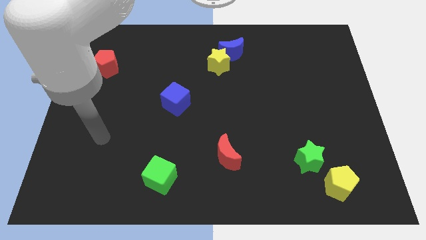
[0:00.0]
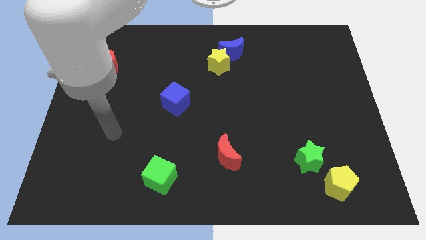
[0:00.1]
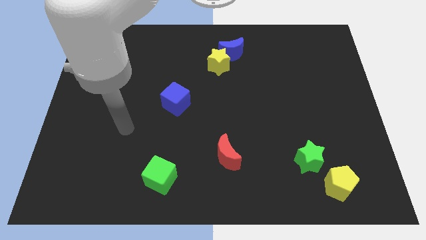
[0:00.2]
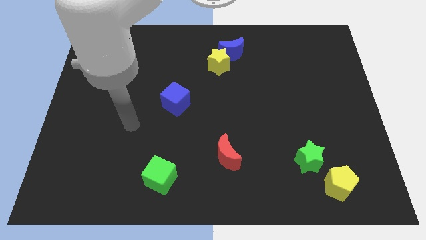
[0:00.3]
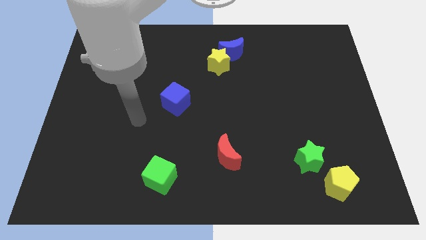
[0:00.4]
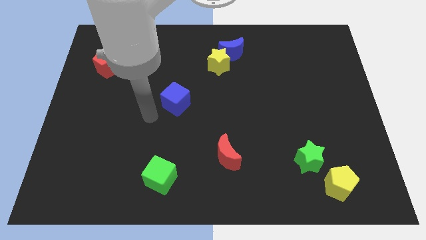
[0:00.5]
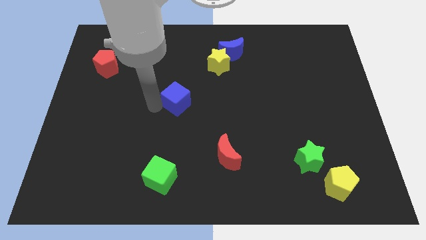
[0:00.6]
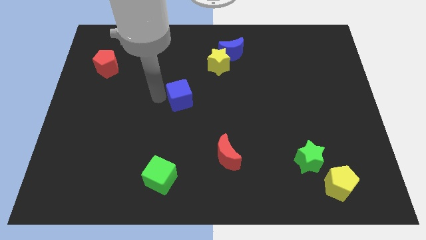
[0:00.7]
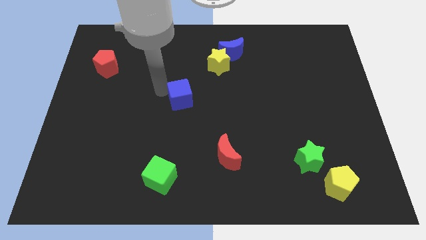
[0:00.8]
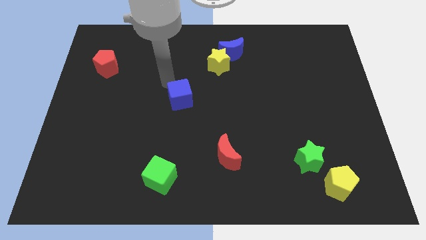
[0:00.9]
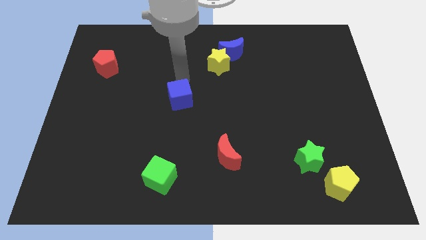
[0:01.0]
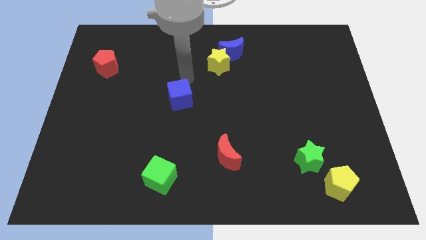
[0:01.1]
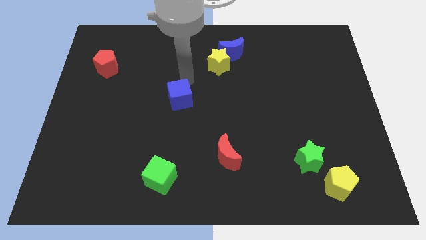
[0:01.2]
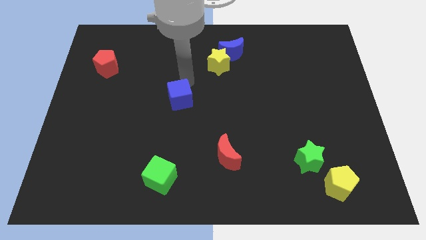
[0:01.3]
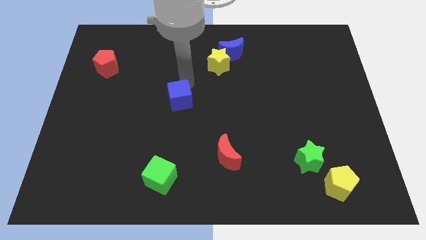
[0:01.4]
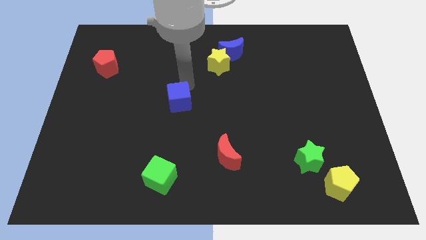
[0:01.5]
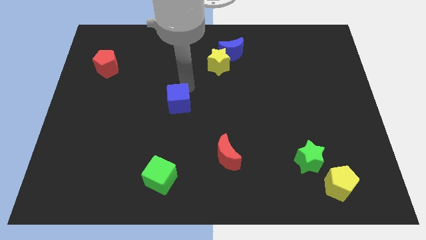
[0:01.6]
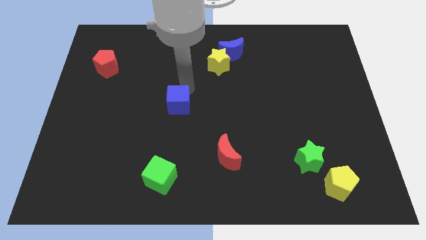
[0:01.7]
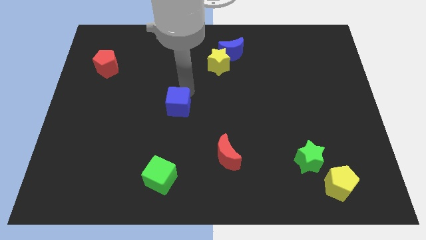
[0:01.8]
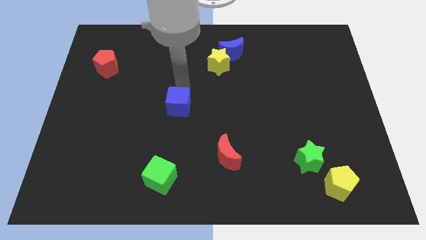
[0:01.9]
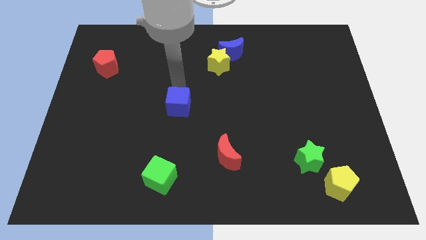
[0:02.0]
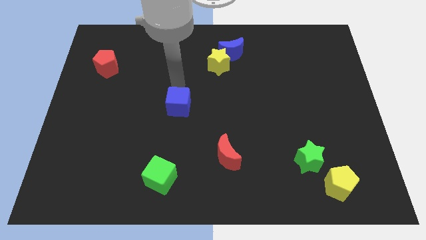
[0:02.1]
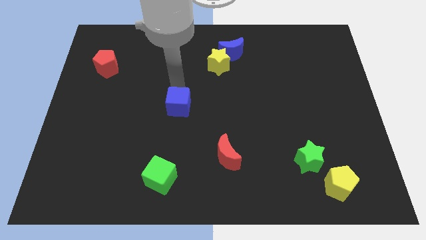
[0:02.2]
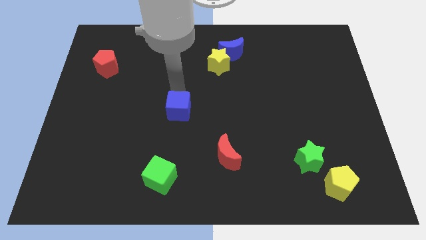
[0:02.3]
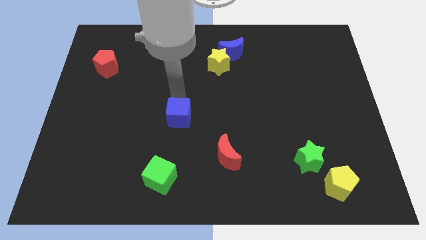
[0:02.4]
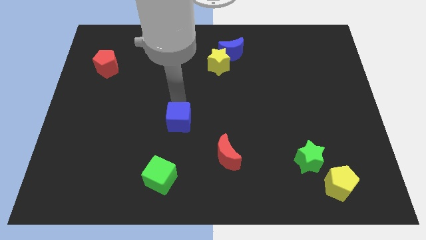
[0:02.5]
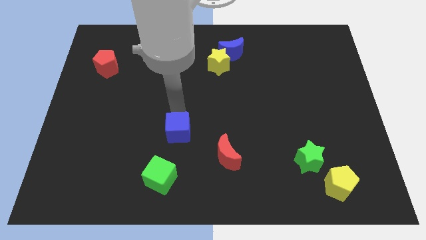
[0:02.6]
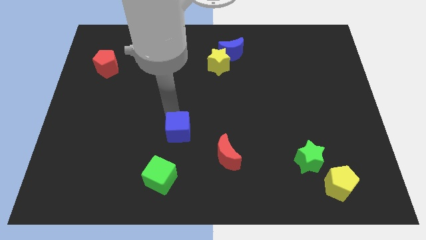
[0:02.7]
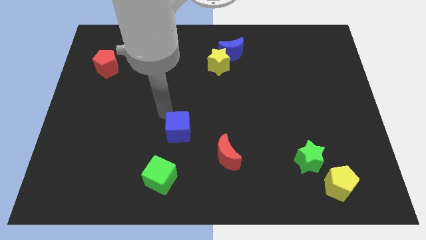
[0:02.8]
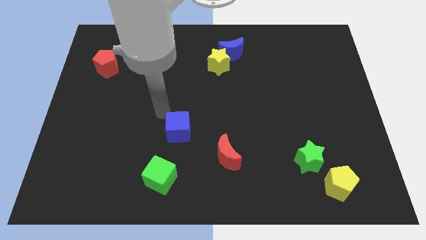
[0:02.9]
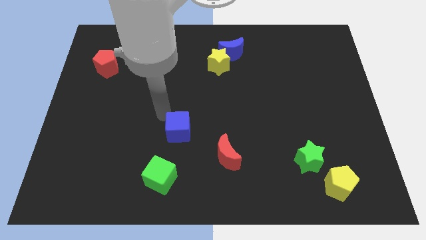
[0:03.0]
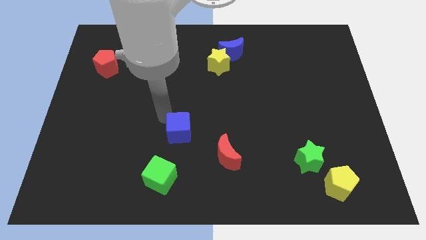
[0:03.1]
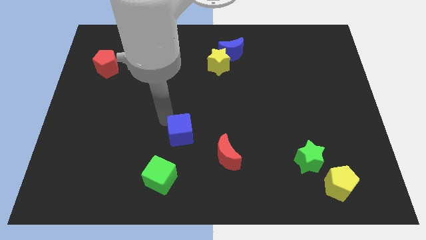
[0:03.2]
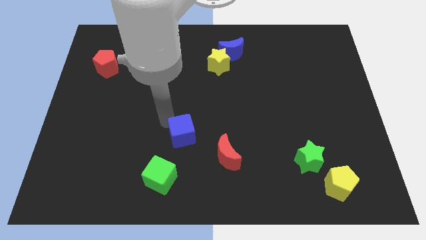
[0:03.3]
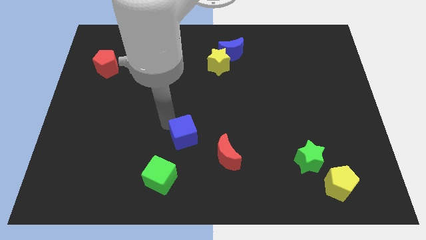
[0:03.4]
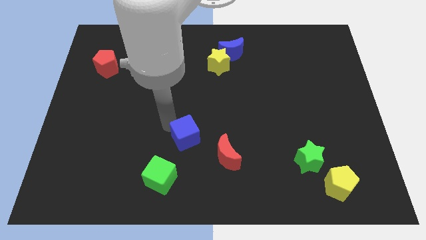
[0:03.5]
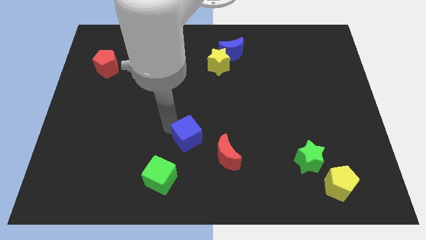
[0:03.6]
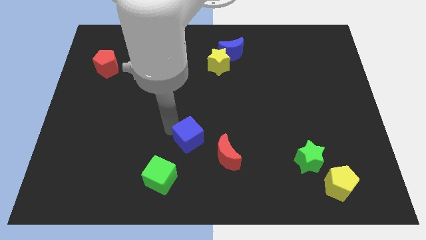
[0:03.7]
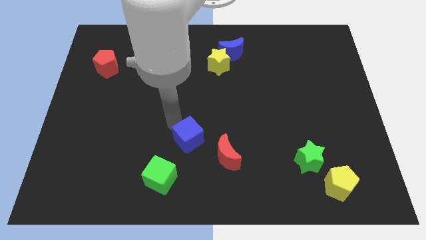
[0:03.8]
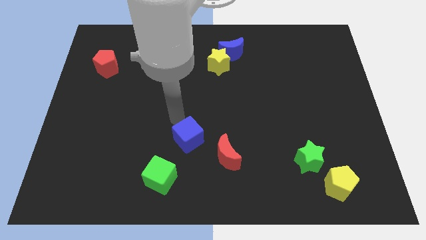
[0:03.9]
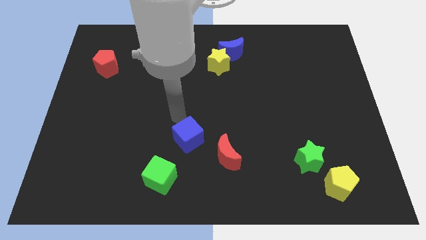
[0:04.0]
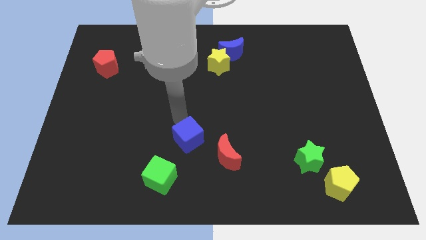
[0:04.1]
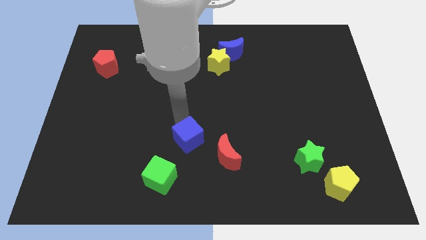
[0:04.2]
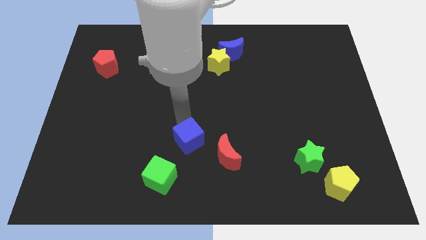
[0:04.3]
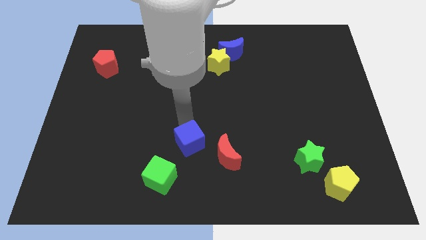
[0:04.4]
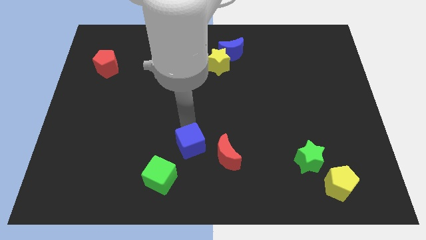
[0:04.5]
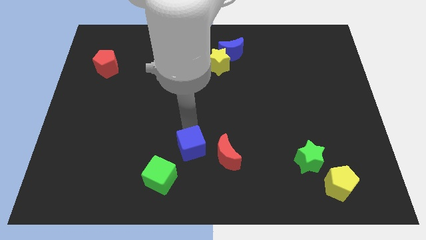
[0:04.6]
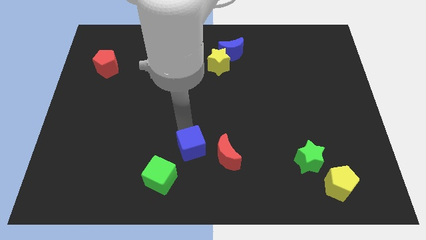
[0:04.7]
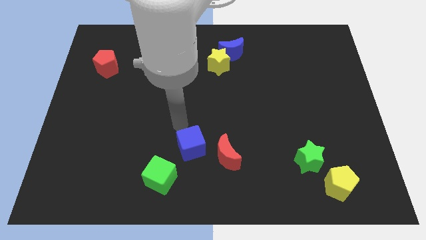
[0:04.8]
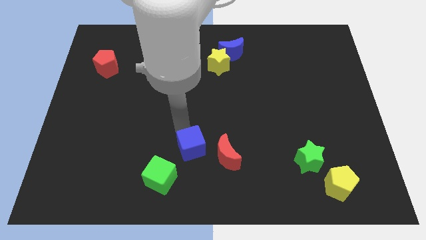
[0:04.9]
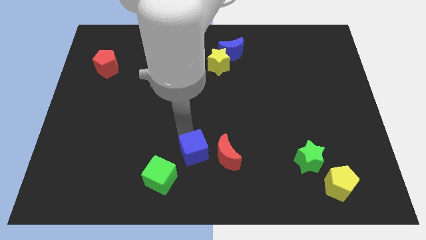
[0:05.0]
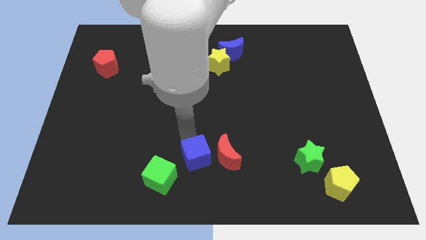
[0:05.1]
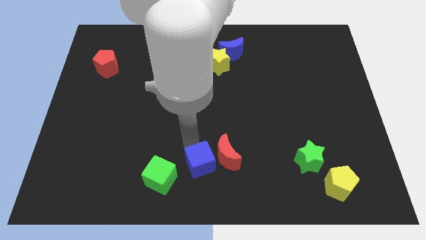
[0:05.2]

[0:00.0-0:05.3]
put the blue cube to the right of the green cube

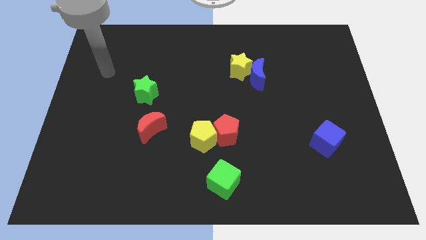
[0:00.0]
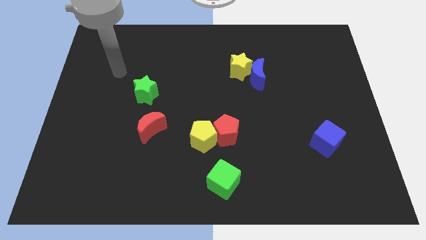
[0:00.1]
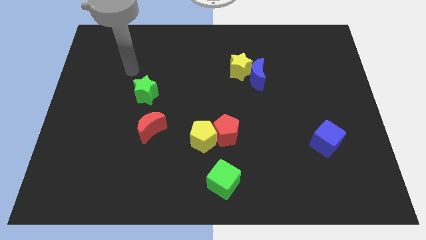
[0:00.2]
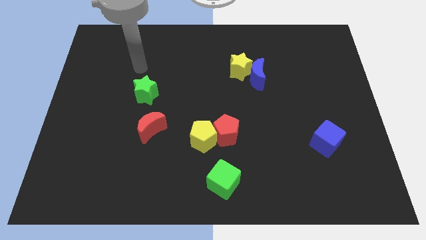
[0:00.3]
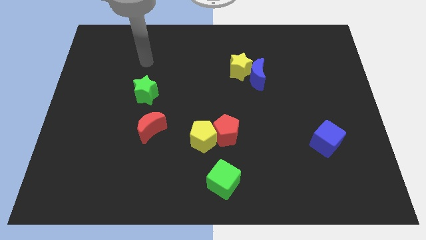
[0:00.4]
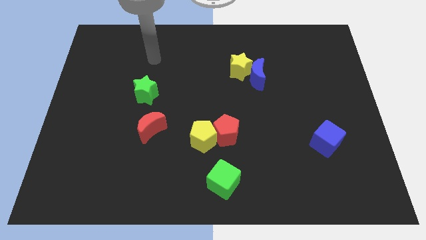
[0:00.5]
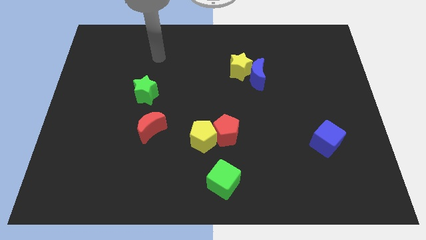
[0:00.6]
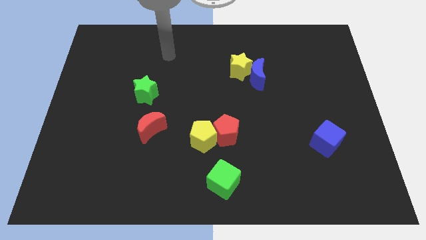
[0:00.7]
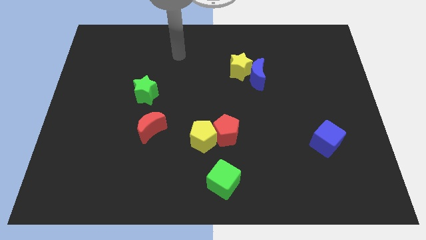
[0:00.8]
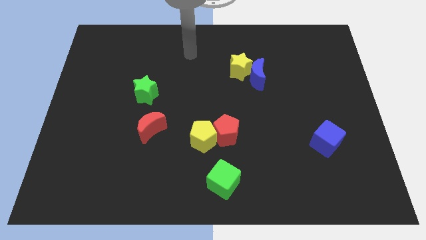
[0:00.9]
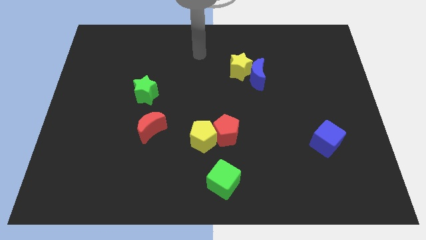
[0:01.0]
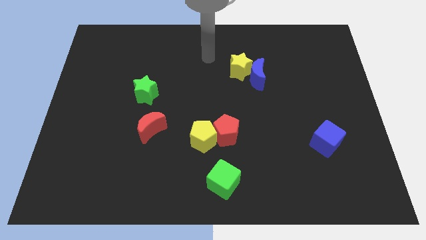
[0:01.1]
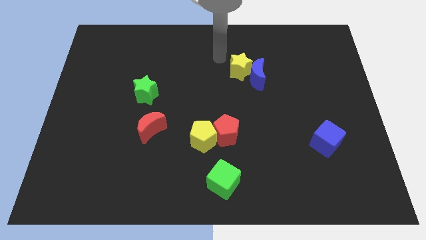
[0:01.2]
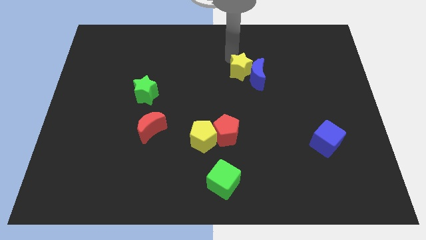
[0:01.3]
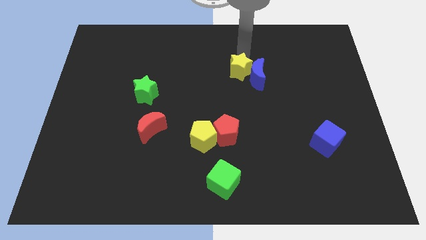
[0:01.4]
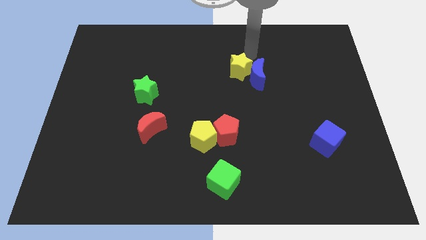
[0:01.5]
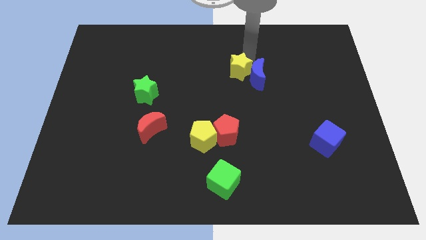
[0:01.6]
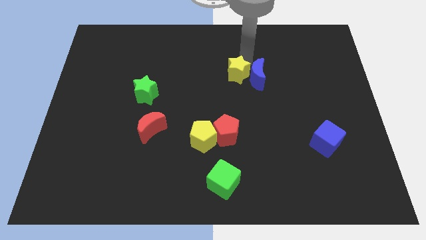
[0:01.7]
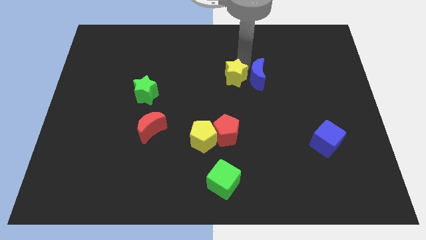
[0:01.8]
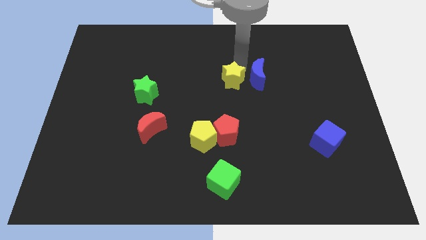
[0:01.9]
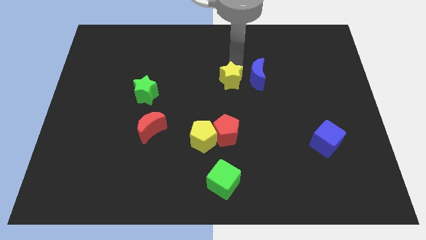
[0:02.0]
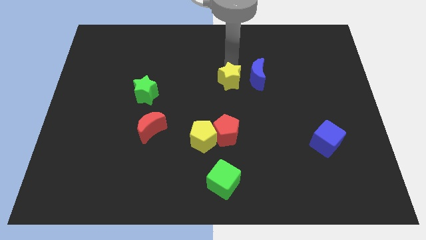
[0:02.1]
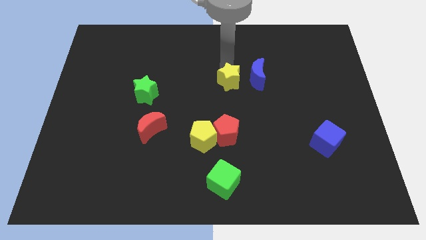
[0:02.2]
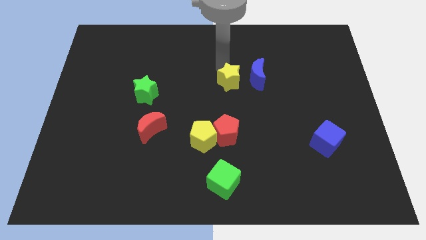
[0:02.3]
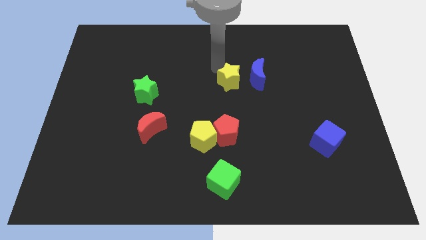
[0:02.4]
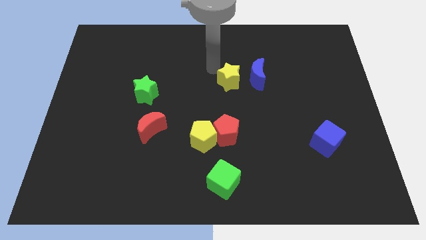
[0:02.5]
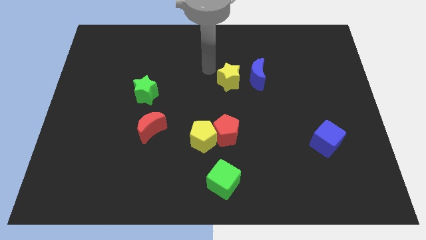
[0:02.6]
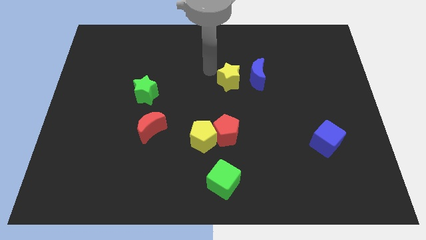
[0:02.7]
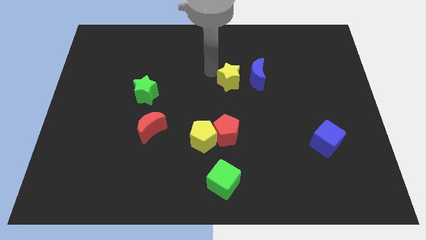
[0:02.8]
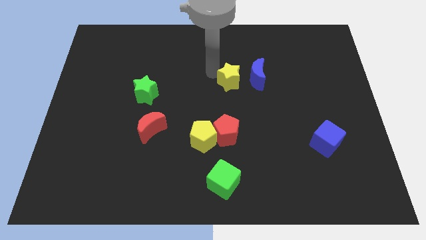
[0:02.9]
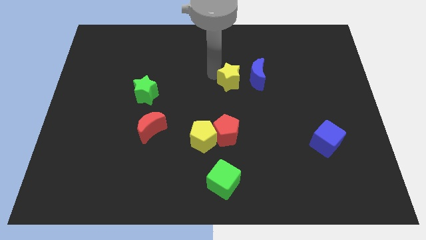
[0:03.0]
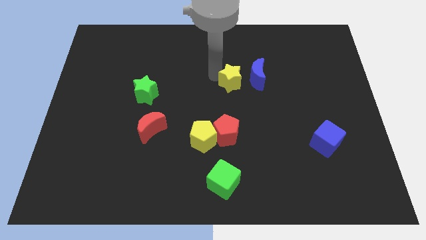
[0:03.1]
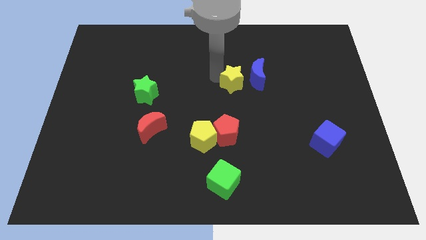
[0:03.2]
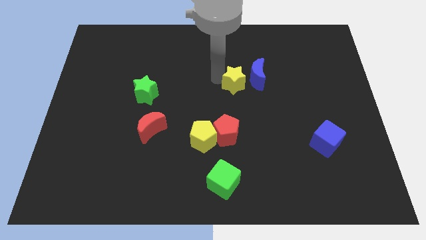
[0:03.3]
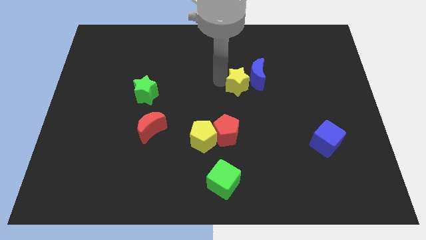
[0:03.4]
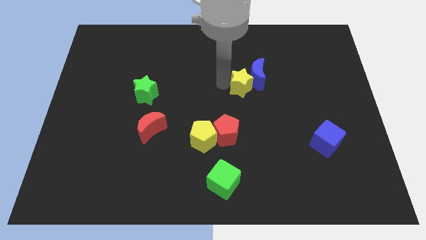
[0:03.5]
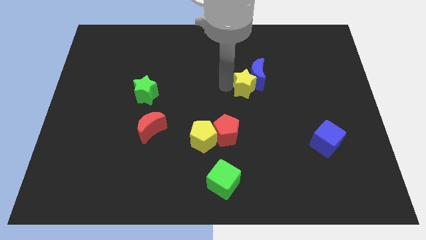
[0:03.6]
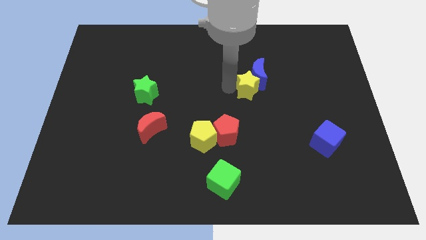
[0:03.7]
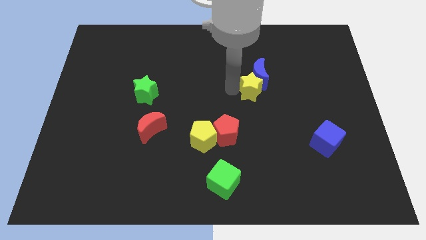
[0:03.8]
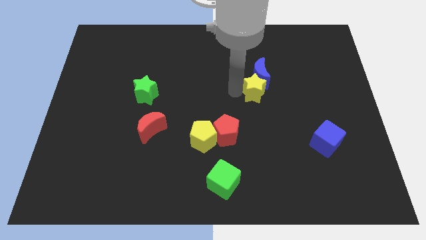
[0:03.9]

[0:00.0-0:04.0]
put the yellow star to the bottom right of the blue moon
